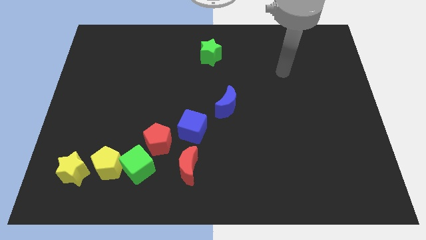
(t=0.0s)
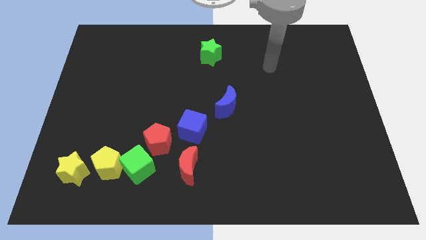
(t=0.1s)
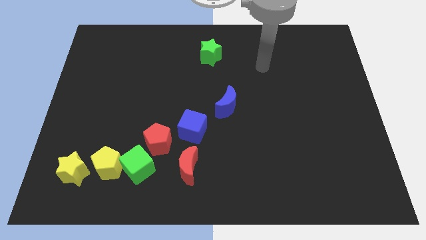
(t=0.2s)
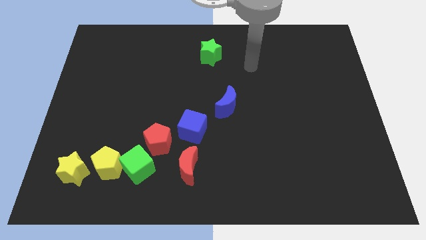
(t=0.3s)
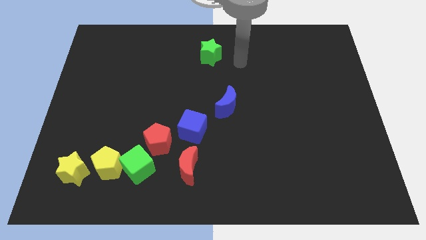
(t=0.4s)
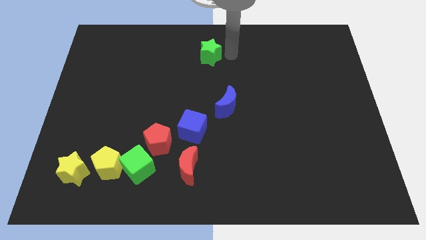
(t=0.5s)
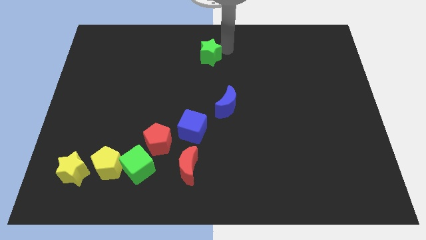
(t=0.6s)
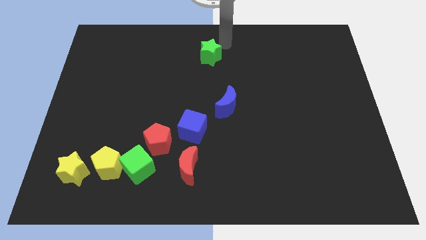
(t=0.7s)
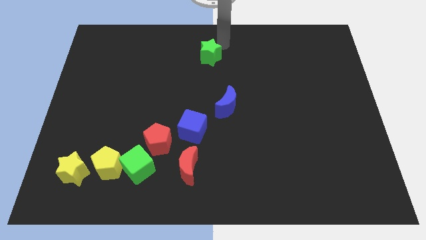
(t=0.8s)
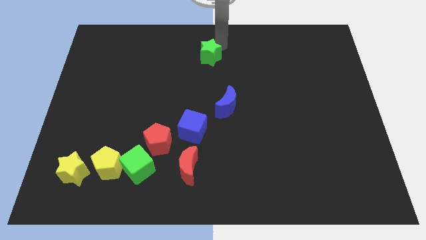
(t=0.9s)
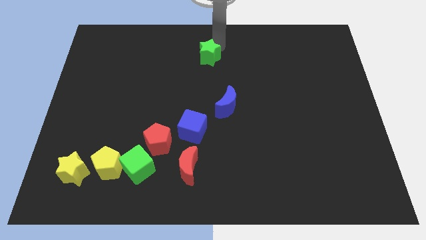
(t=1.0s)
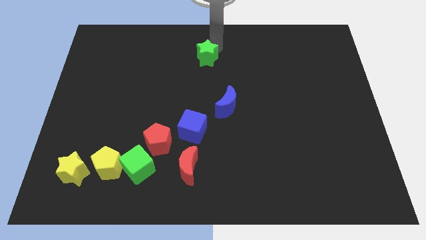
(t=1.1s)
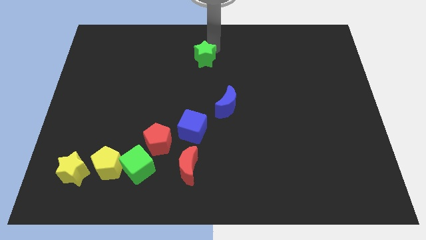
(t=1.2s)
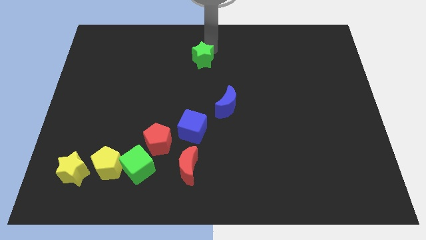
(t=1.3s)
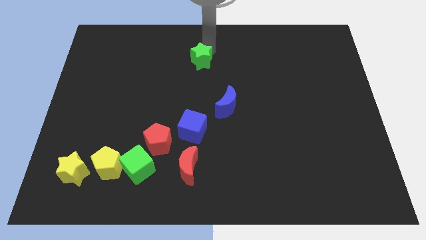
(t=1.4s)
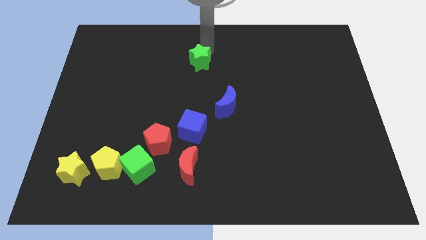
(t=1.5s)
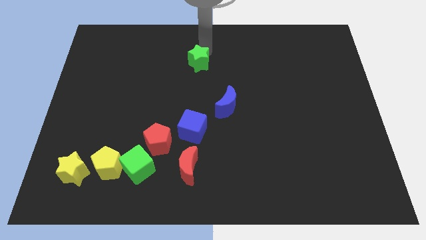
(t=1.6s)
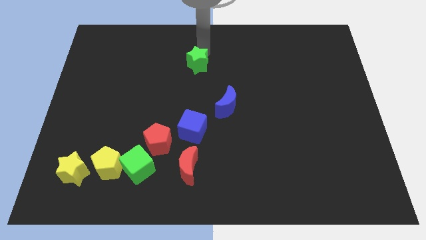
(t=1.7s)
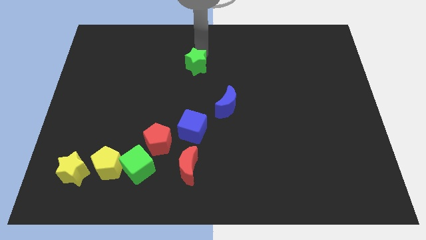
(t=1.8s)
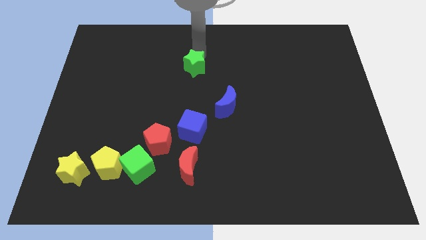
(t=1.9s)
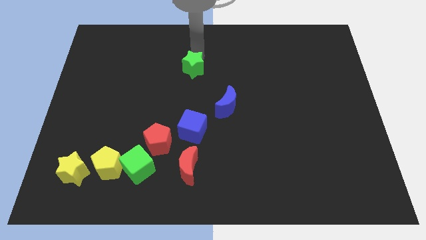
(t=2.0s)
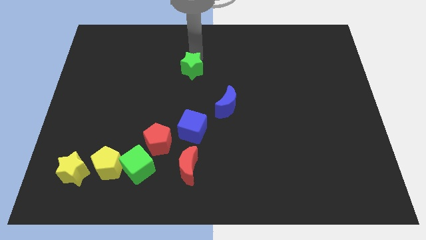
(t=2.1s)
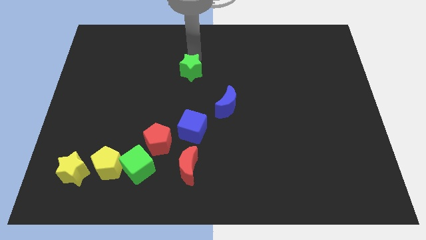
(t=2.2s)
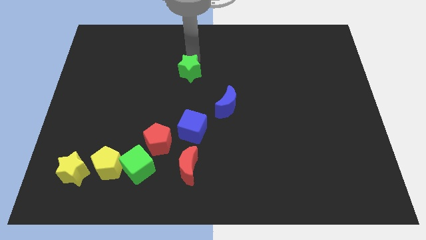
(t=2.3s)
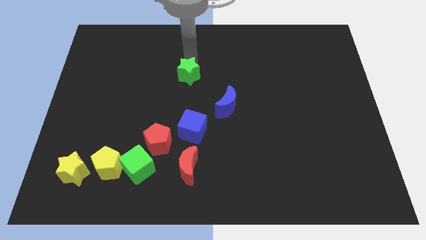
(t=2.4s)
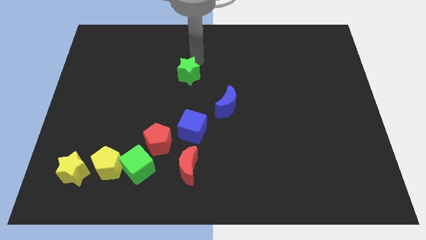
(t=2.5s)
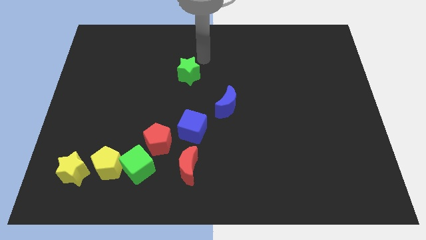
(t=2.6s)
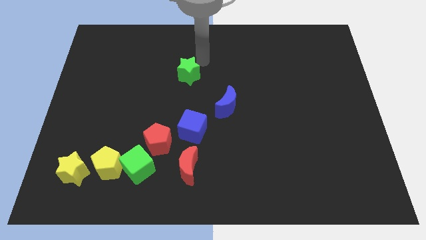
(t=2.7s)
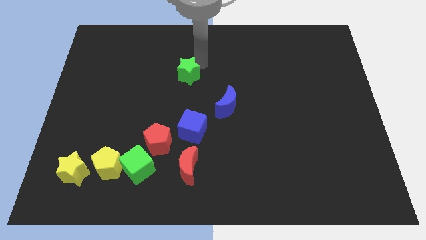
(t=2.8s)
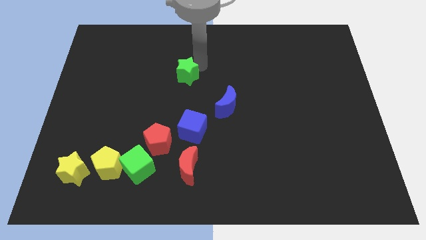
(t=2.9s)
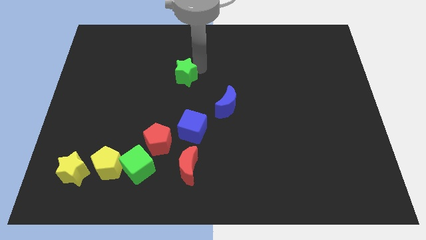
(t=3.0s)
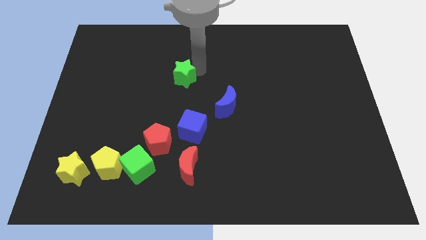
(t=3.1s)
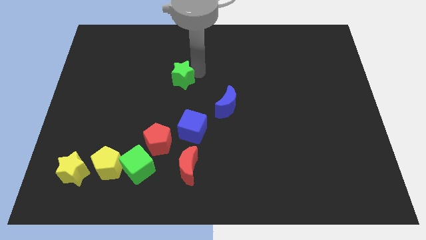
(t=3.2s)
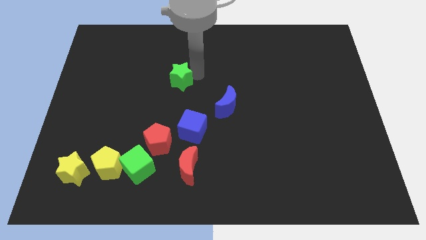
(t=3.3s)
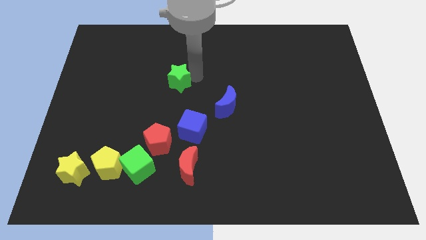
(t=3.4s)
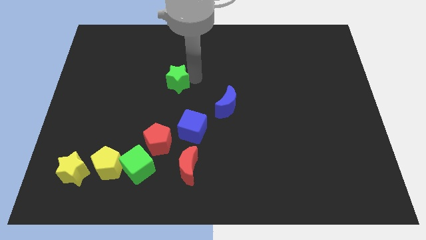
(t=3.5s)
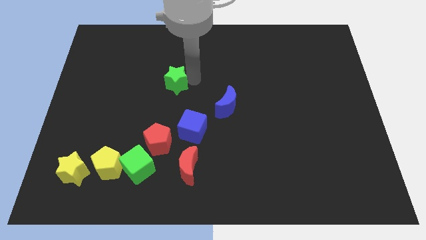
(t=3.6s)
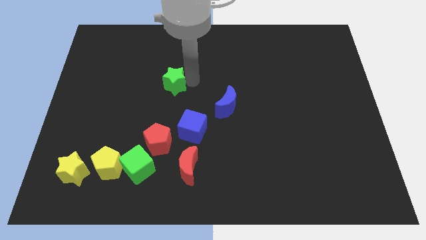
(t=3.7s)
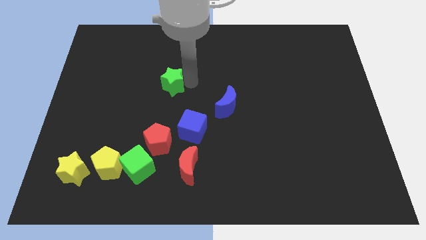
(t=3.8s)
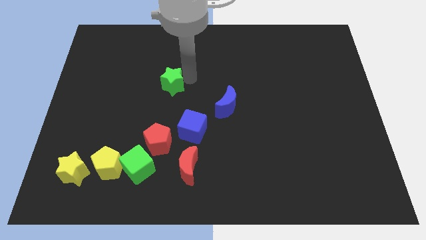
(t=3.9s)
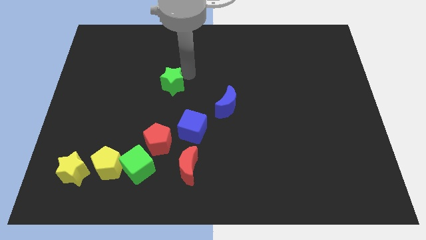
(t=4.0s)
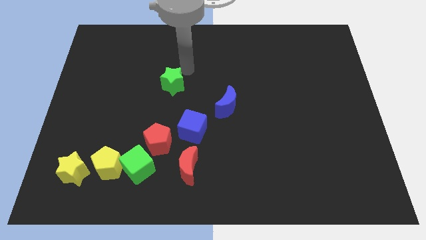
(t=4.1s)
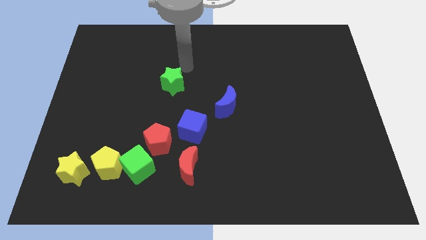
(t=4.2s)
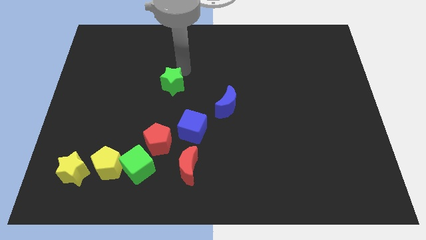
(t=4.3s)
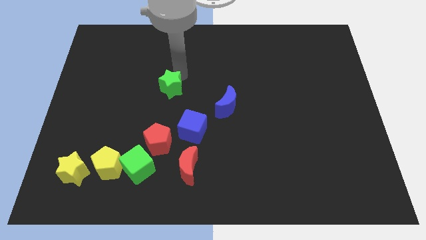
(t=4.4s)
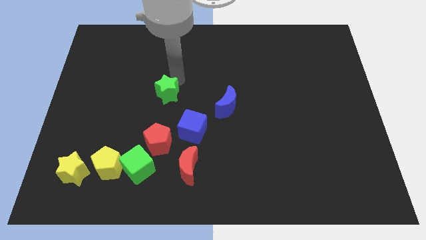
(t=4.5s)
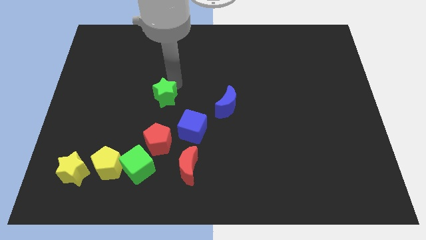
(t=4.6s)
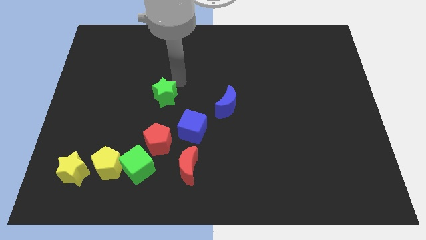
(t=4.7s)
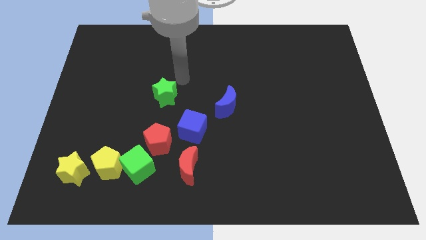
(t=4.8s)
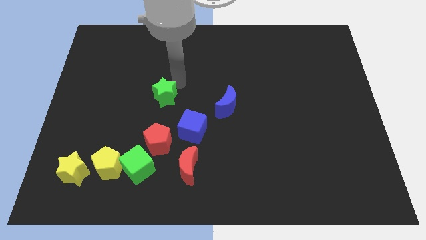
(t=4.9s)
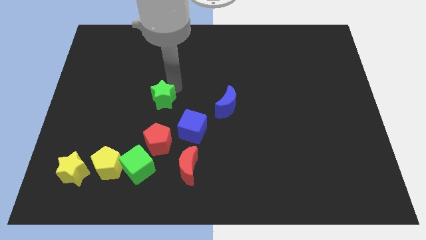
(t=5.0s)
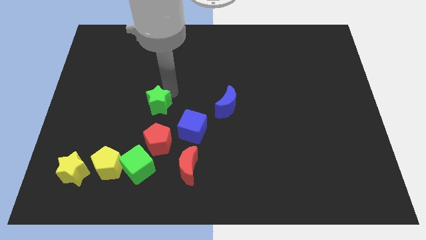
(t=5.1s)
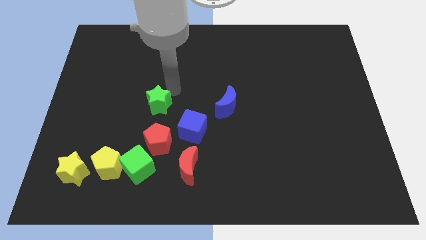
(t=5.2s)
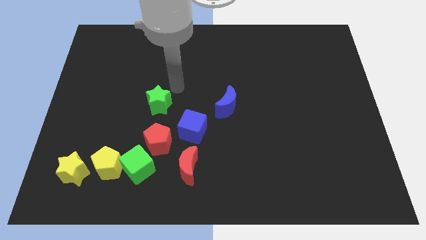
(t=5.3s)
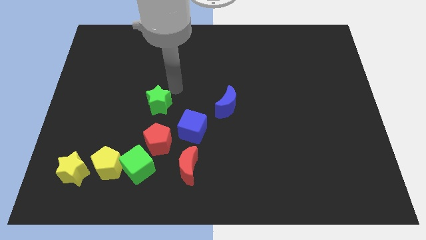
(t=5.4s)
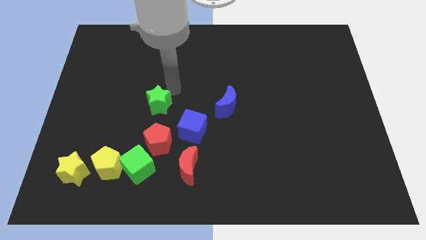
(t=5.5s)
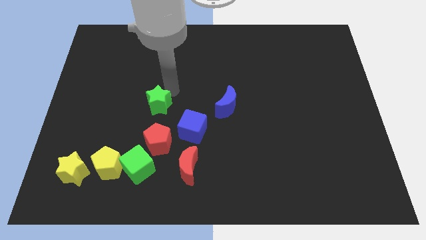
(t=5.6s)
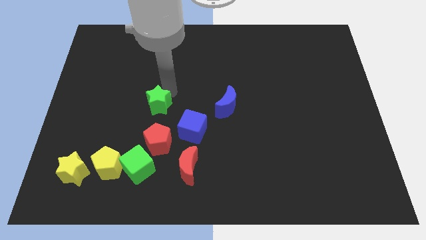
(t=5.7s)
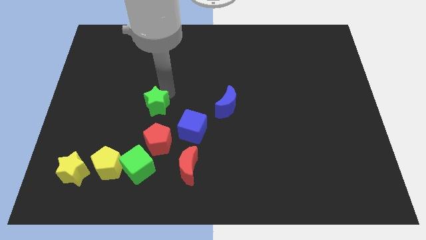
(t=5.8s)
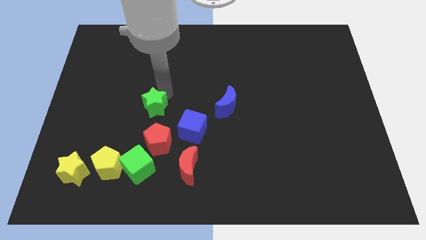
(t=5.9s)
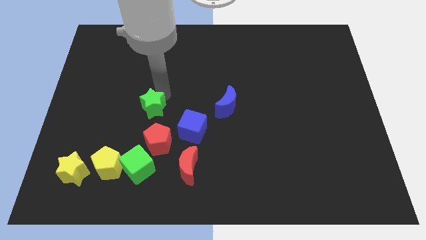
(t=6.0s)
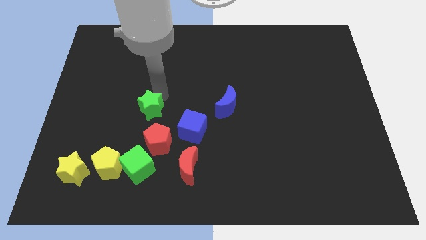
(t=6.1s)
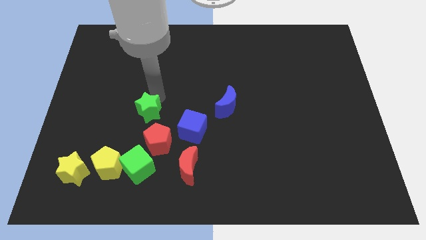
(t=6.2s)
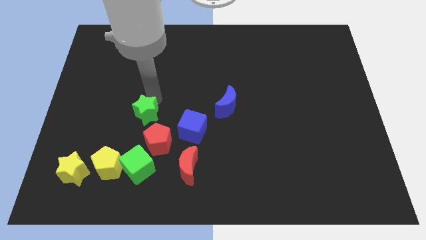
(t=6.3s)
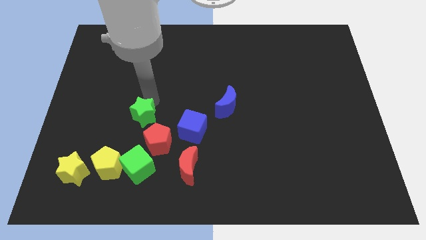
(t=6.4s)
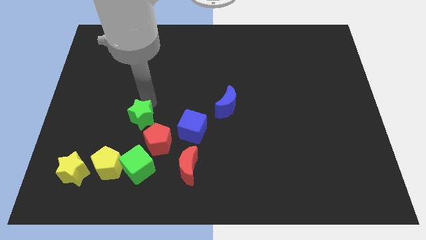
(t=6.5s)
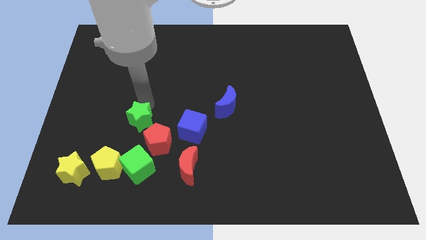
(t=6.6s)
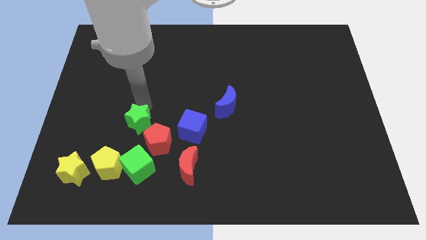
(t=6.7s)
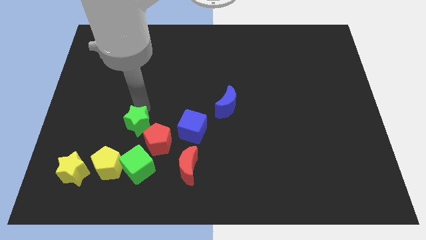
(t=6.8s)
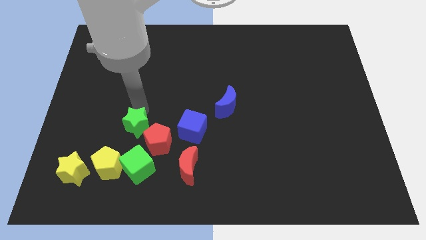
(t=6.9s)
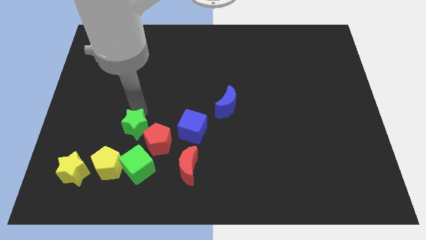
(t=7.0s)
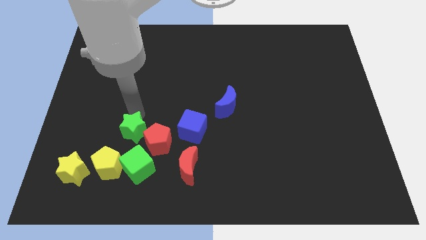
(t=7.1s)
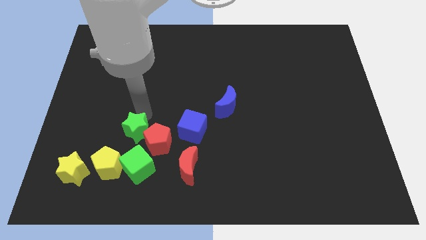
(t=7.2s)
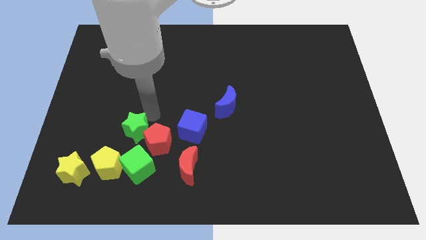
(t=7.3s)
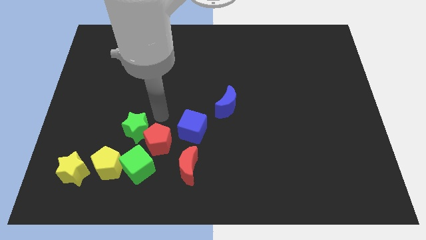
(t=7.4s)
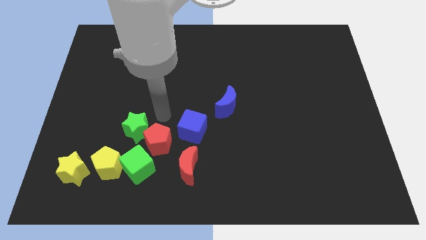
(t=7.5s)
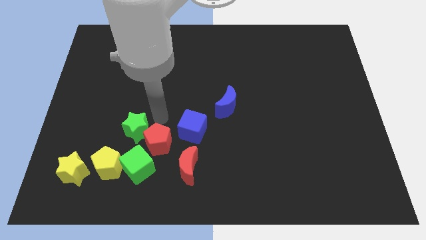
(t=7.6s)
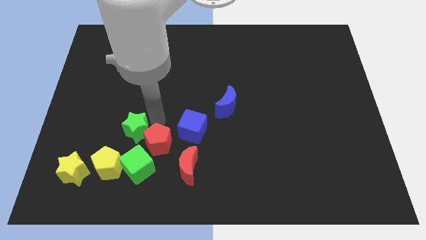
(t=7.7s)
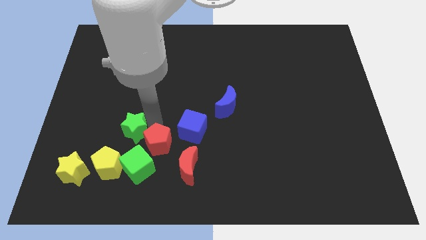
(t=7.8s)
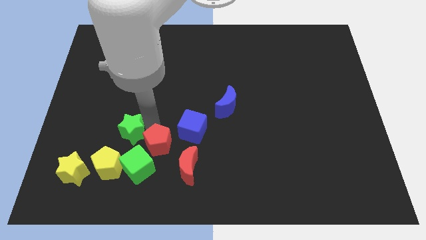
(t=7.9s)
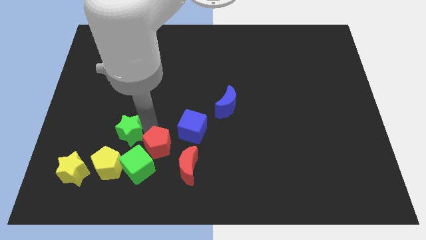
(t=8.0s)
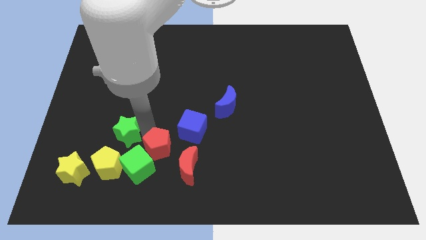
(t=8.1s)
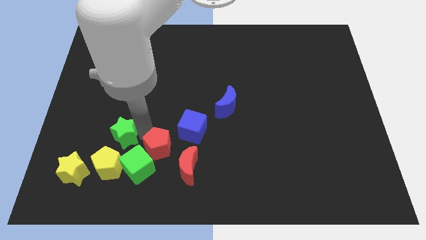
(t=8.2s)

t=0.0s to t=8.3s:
put the green star to the top right of the yellow star
